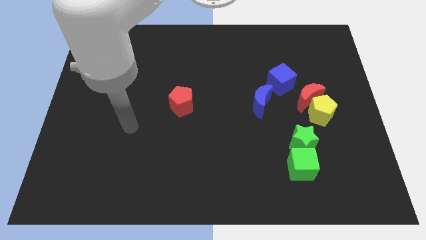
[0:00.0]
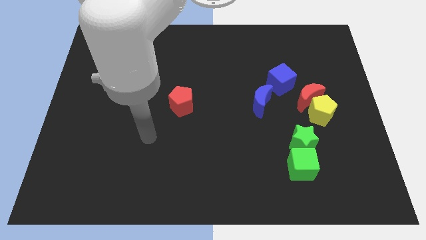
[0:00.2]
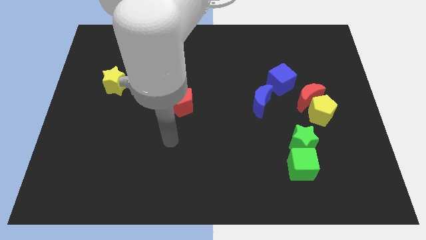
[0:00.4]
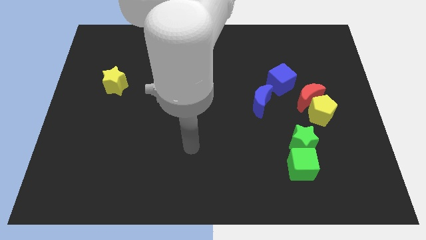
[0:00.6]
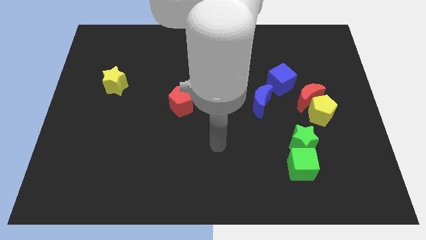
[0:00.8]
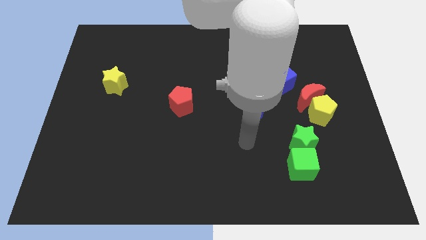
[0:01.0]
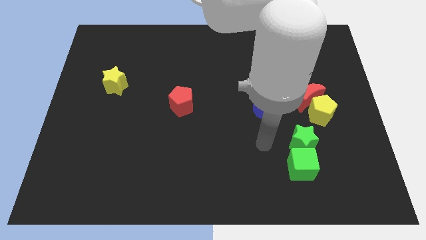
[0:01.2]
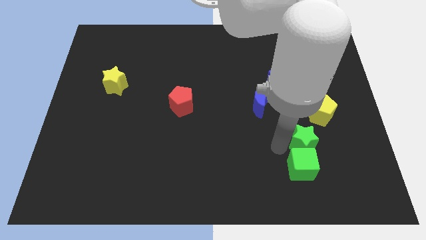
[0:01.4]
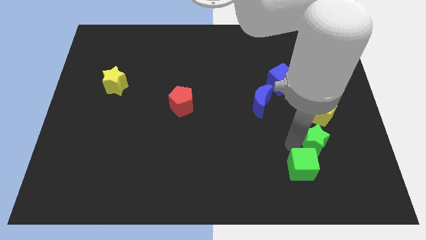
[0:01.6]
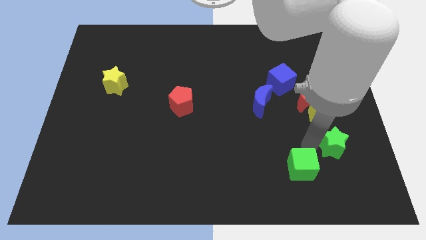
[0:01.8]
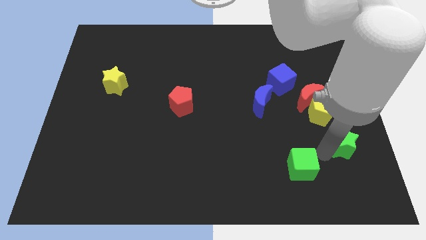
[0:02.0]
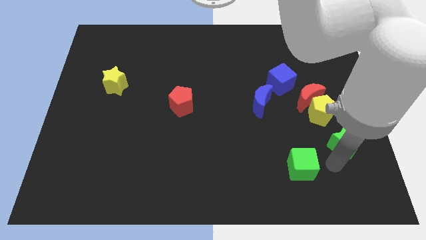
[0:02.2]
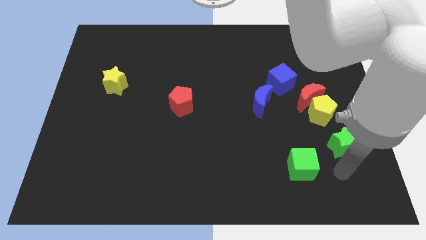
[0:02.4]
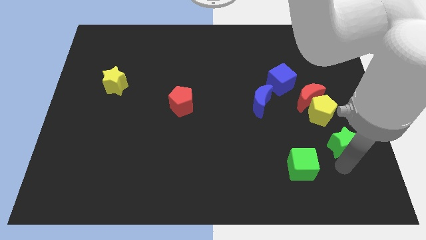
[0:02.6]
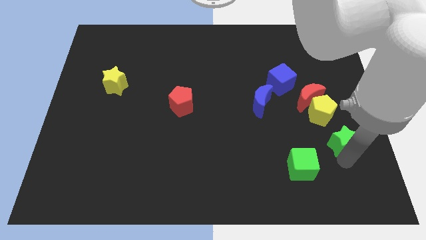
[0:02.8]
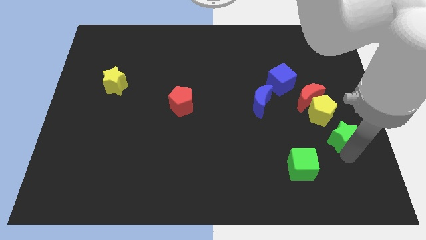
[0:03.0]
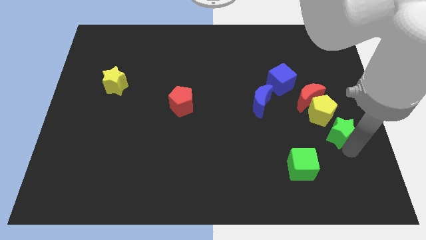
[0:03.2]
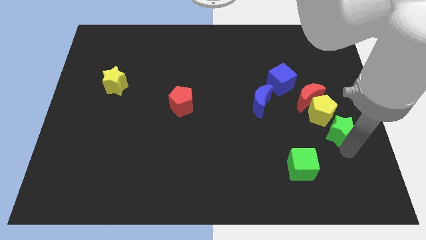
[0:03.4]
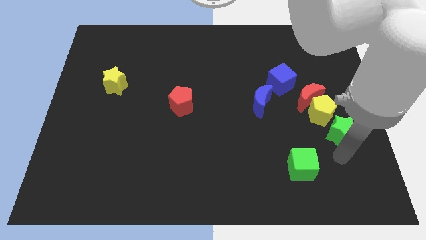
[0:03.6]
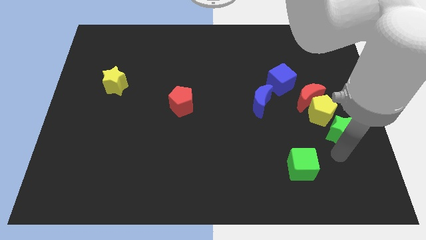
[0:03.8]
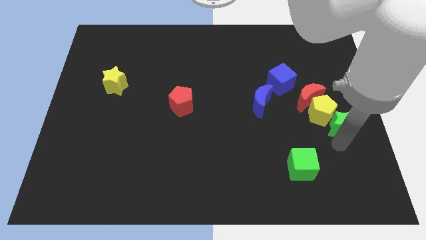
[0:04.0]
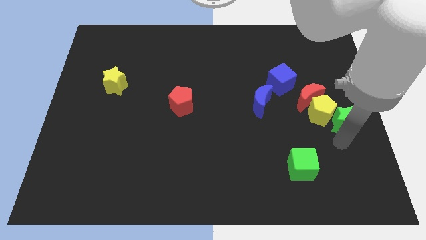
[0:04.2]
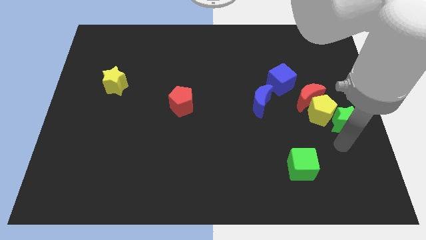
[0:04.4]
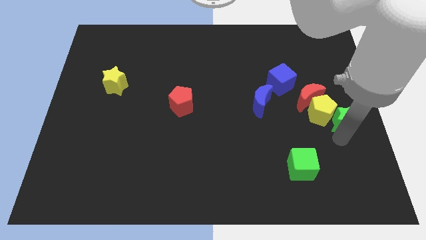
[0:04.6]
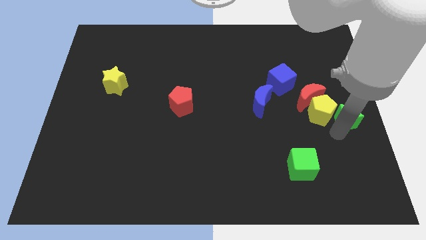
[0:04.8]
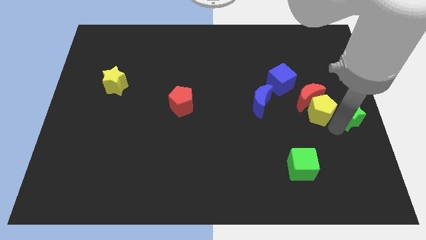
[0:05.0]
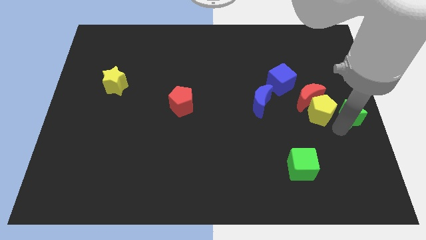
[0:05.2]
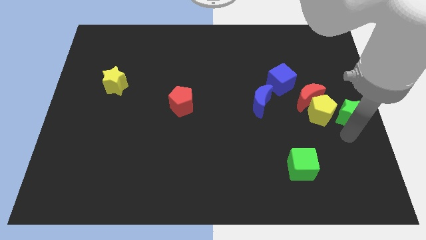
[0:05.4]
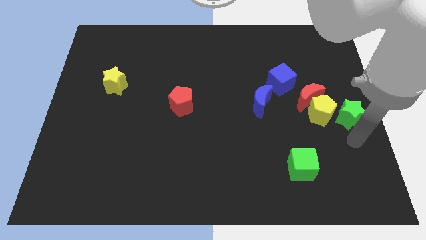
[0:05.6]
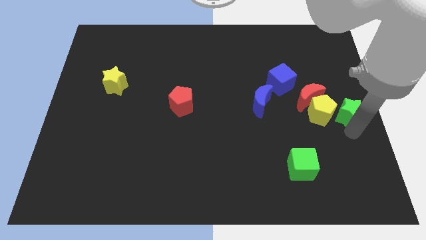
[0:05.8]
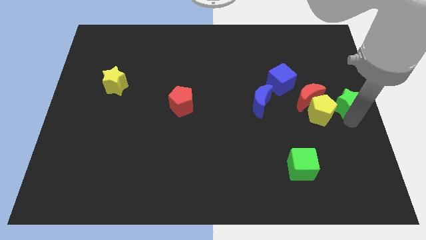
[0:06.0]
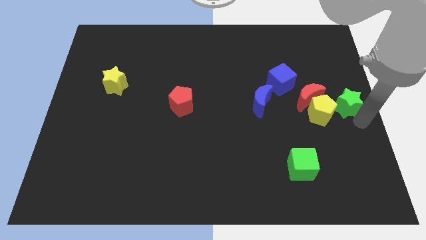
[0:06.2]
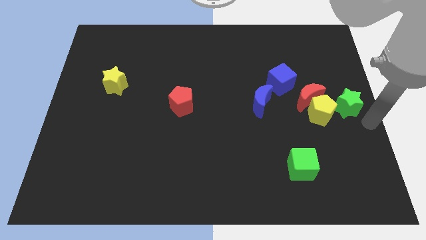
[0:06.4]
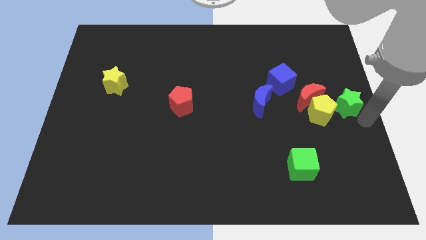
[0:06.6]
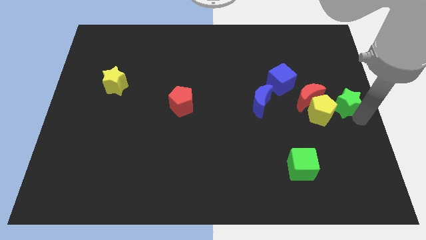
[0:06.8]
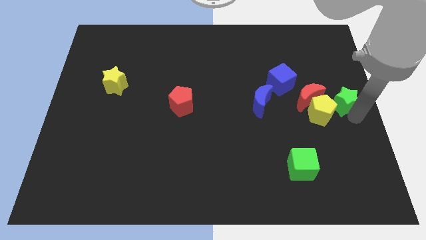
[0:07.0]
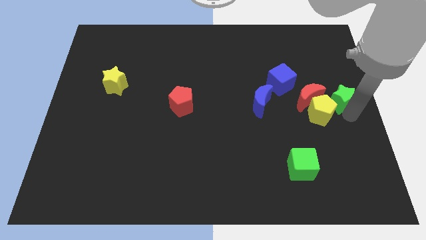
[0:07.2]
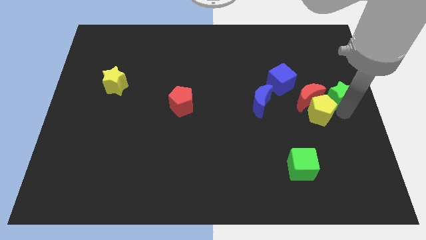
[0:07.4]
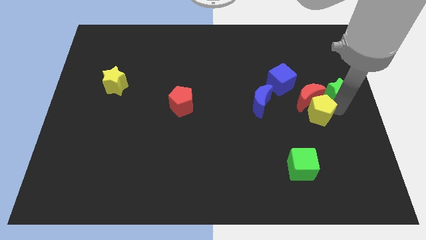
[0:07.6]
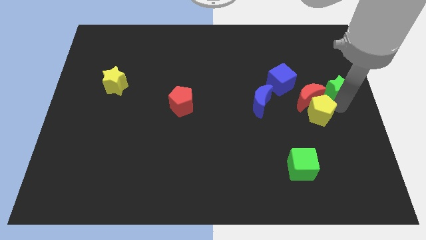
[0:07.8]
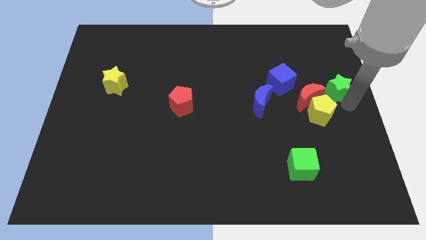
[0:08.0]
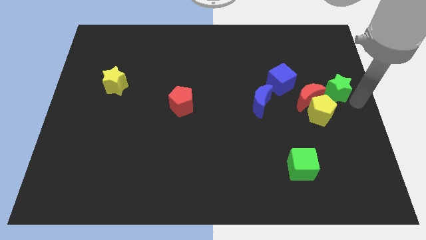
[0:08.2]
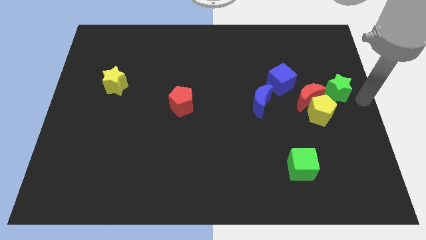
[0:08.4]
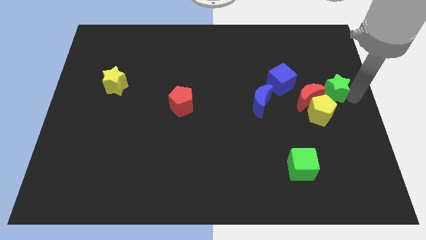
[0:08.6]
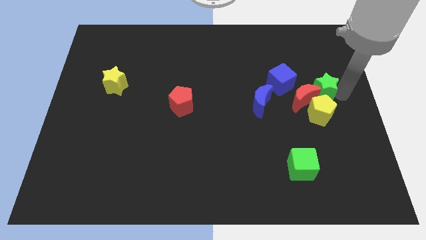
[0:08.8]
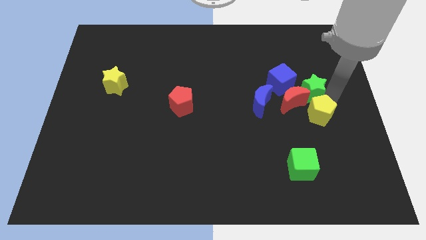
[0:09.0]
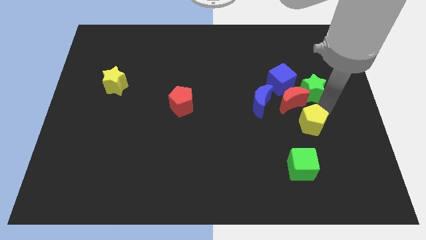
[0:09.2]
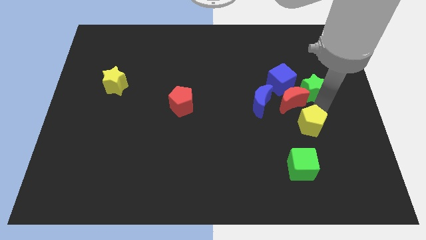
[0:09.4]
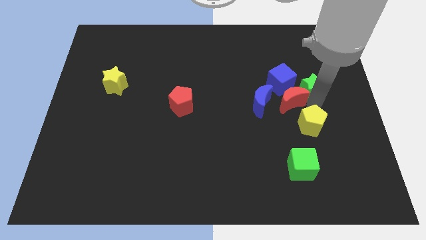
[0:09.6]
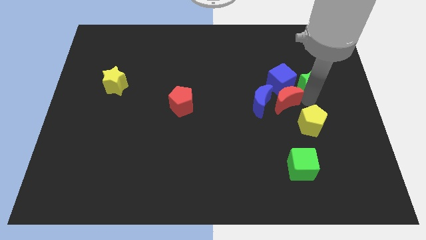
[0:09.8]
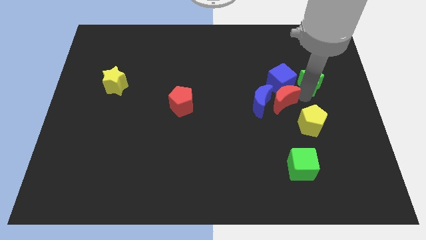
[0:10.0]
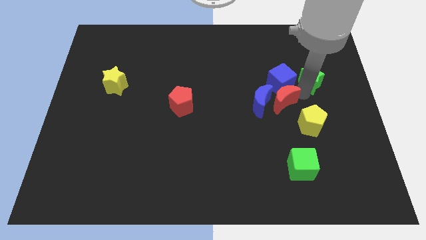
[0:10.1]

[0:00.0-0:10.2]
push the green star to the top right of the blue cube

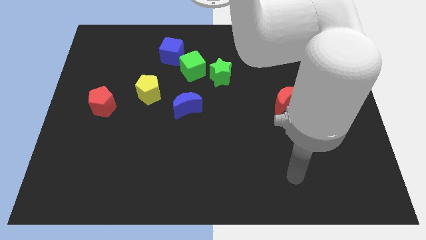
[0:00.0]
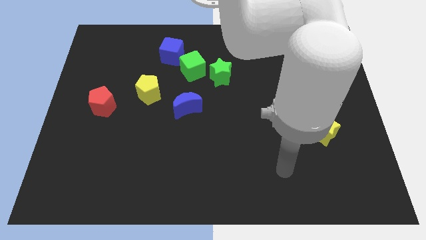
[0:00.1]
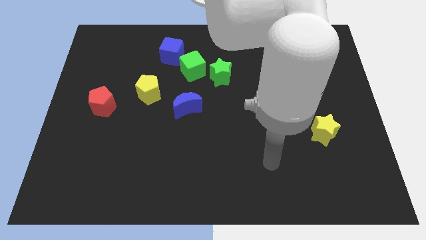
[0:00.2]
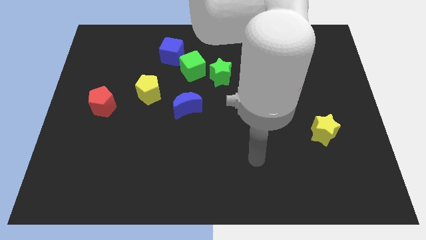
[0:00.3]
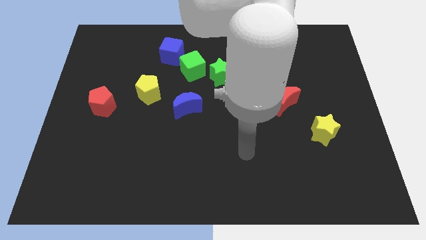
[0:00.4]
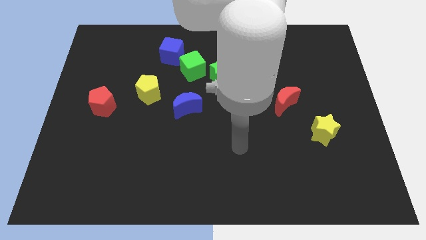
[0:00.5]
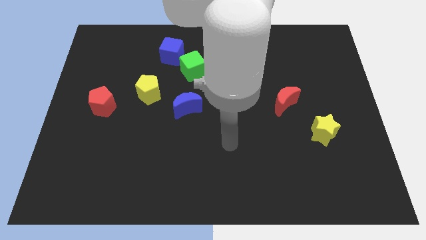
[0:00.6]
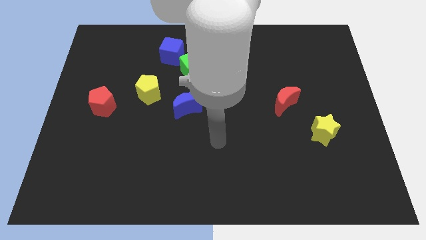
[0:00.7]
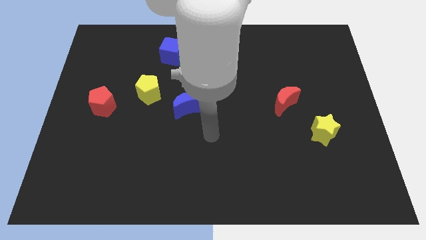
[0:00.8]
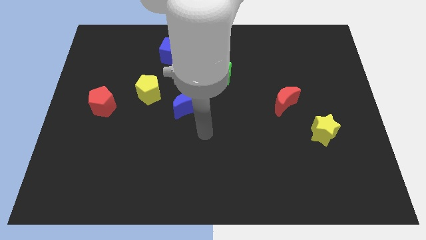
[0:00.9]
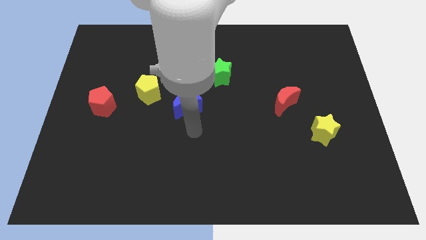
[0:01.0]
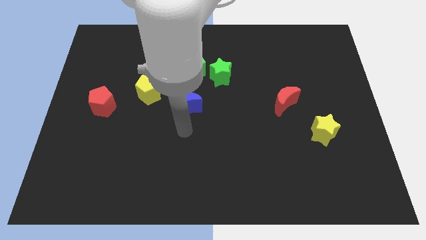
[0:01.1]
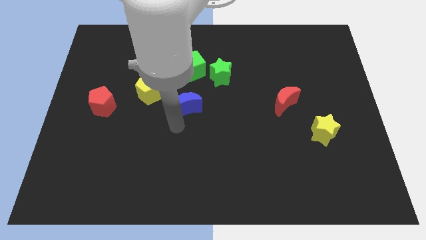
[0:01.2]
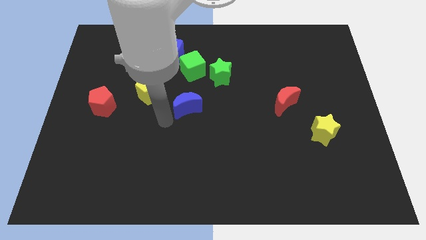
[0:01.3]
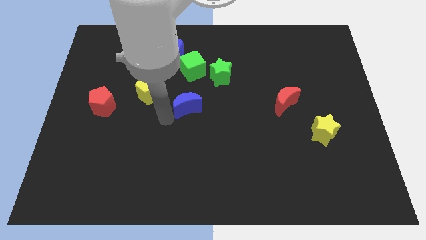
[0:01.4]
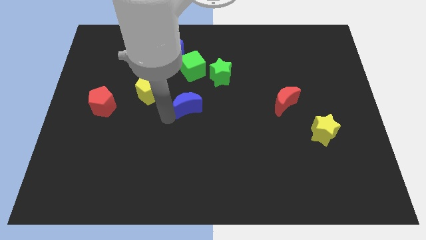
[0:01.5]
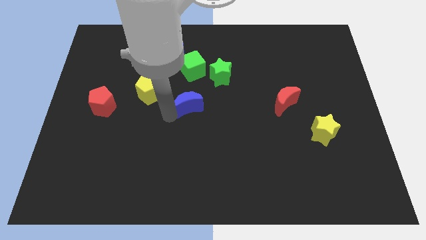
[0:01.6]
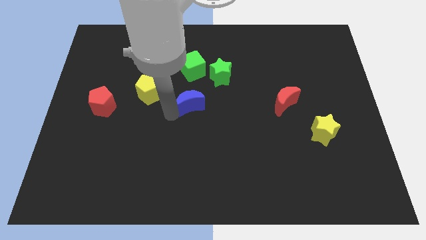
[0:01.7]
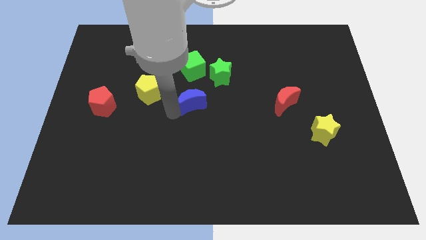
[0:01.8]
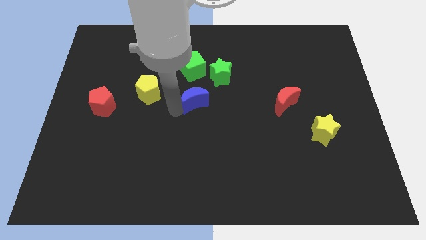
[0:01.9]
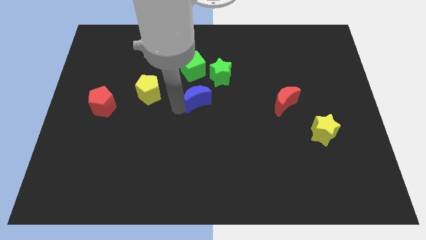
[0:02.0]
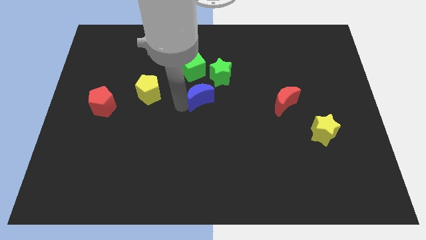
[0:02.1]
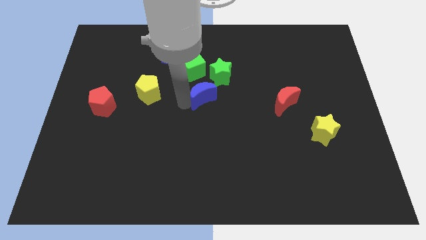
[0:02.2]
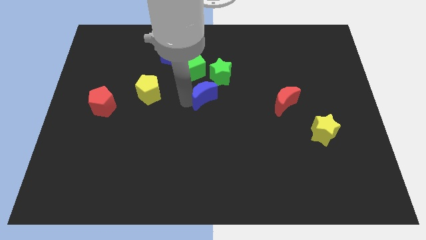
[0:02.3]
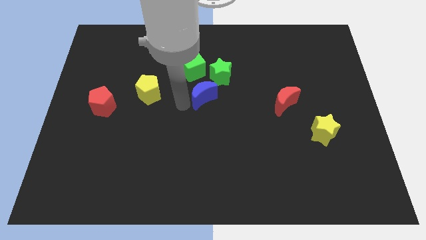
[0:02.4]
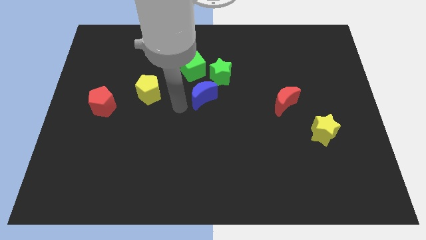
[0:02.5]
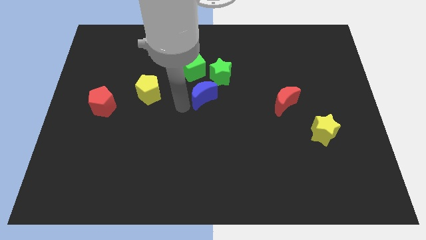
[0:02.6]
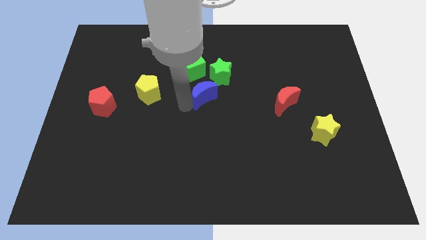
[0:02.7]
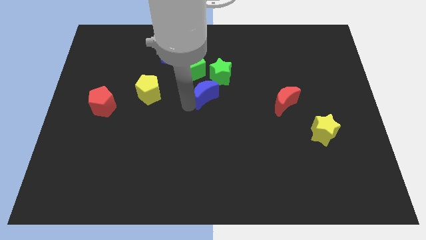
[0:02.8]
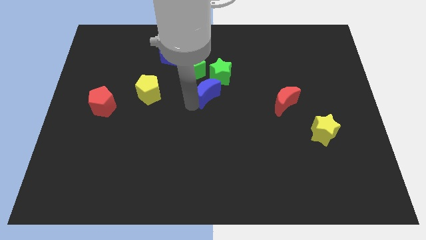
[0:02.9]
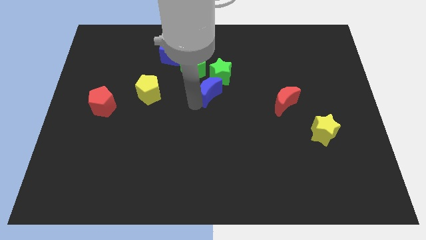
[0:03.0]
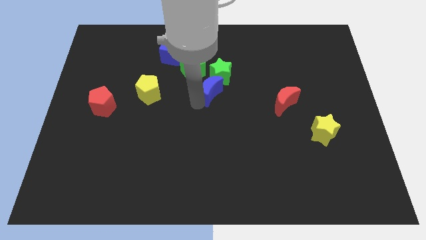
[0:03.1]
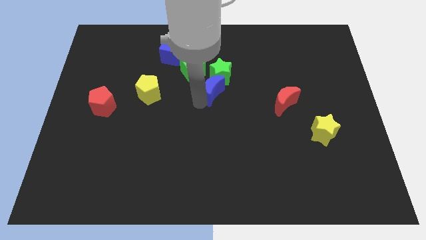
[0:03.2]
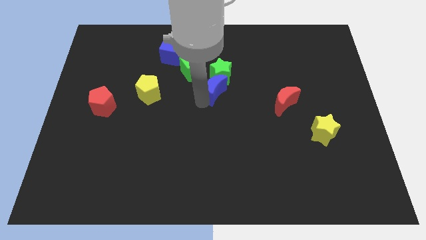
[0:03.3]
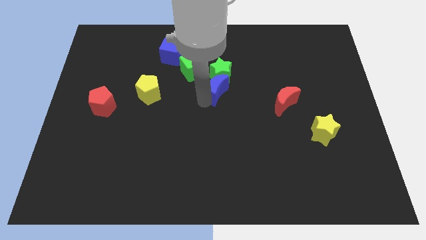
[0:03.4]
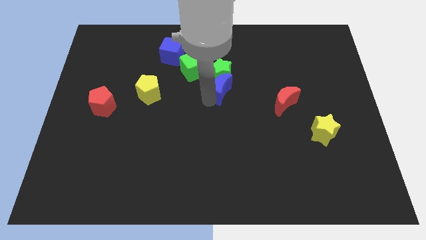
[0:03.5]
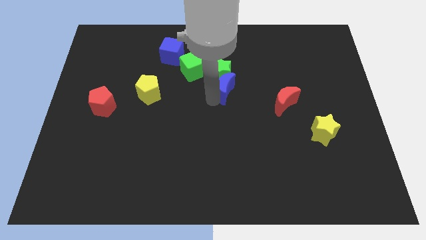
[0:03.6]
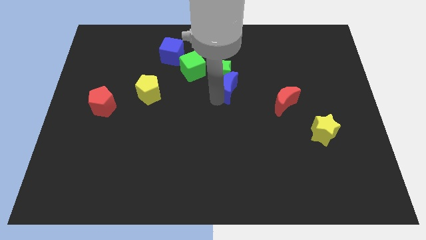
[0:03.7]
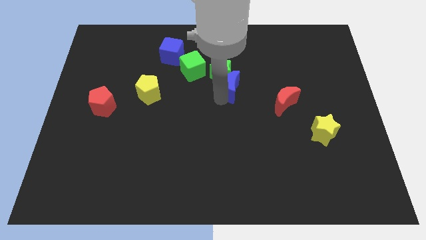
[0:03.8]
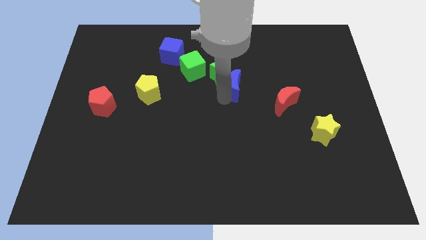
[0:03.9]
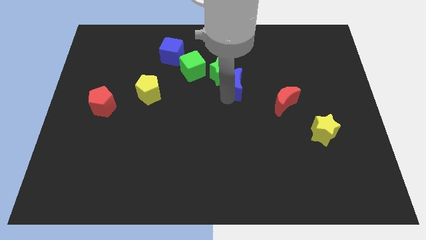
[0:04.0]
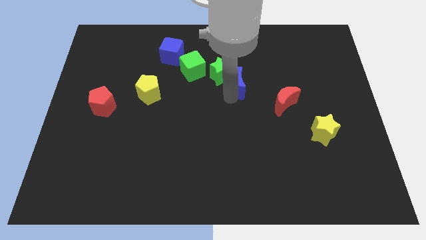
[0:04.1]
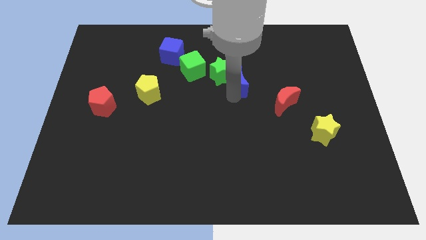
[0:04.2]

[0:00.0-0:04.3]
push the blue moon to the top left of the red moon
